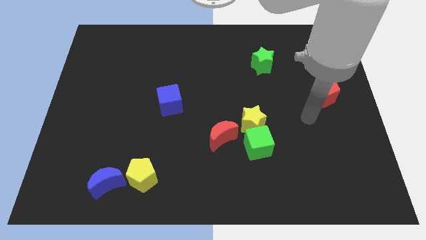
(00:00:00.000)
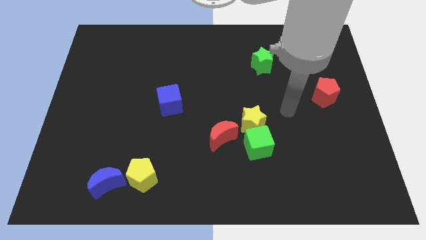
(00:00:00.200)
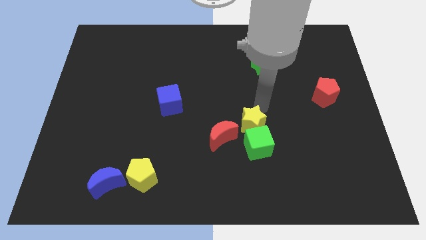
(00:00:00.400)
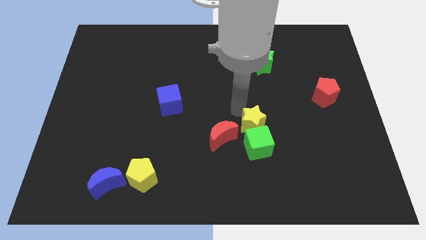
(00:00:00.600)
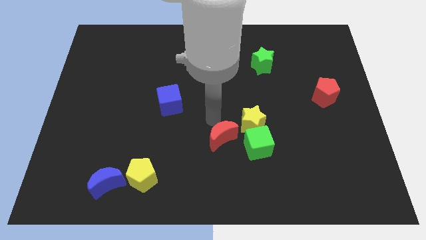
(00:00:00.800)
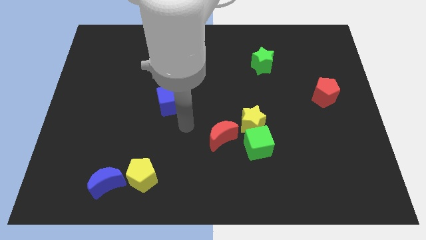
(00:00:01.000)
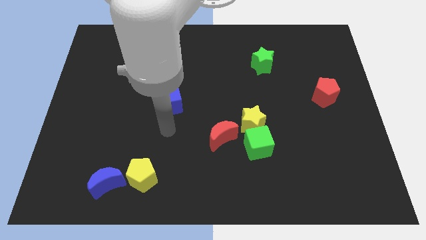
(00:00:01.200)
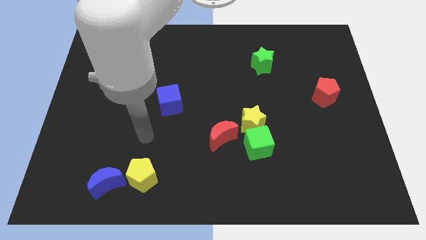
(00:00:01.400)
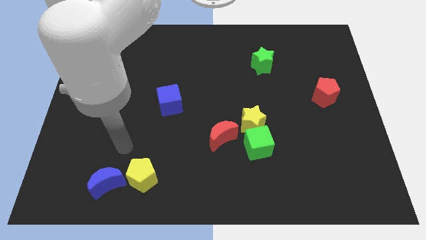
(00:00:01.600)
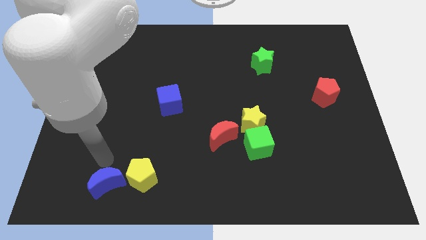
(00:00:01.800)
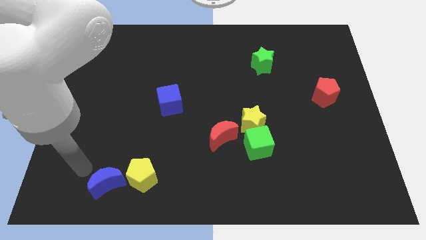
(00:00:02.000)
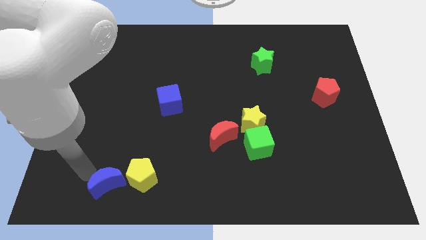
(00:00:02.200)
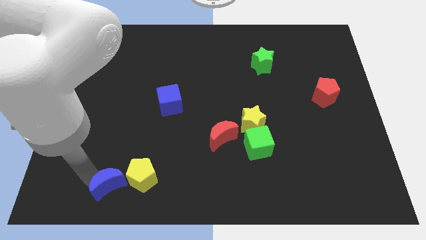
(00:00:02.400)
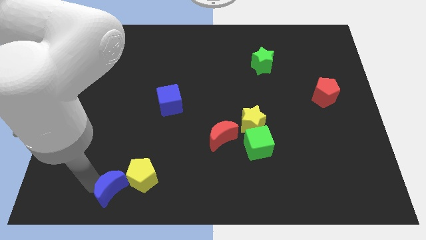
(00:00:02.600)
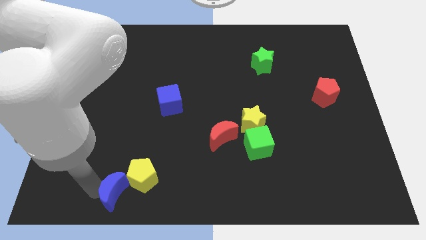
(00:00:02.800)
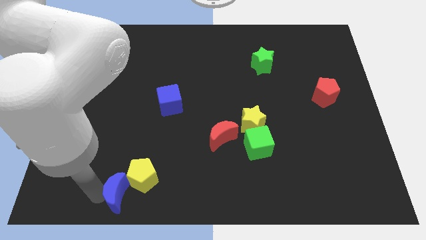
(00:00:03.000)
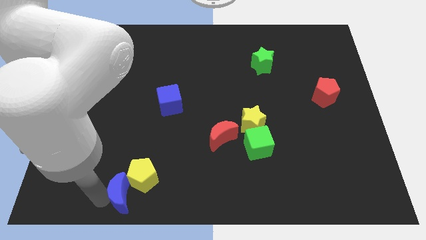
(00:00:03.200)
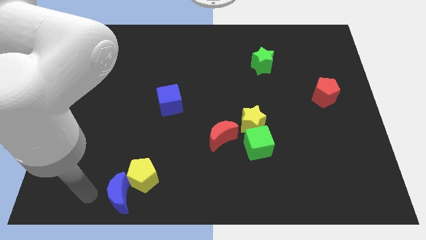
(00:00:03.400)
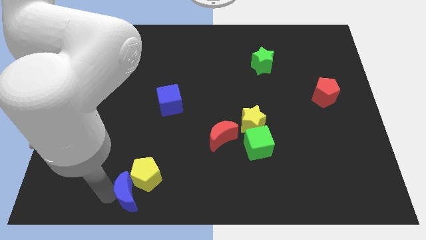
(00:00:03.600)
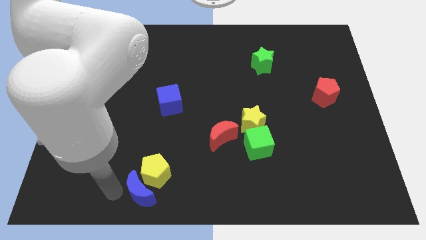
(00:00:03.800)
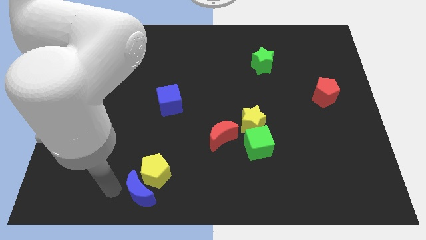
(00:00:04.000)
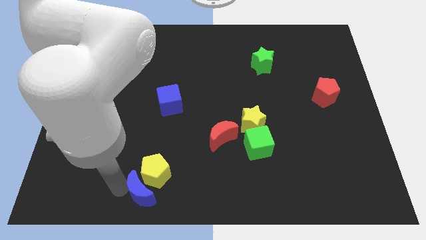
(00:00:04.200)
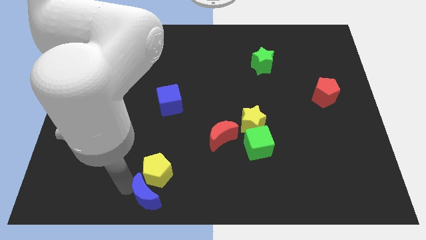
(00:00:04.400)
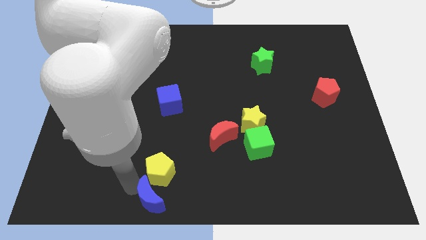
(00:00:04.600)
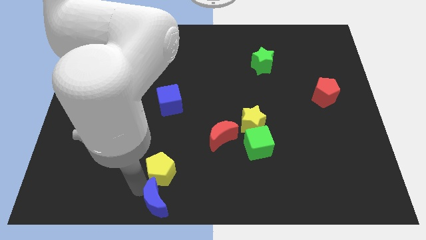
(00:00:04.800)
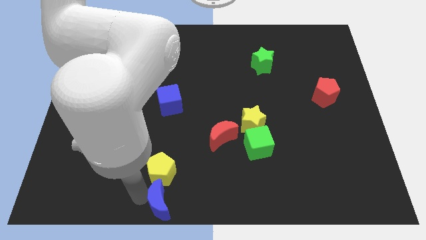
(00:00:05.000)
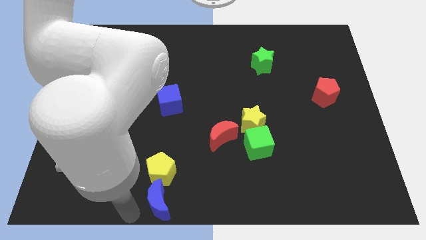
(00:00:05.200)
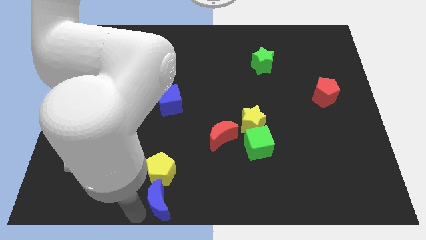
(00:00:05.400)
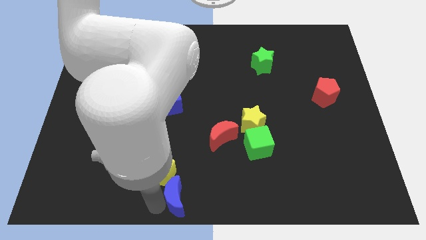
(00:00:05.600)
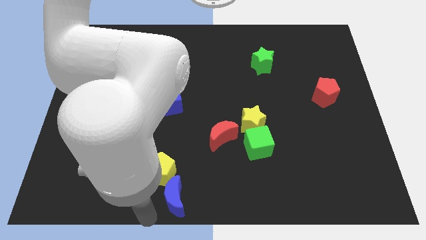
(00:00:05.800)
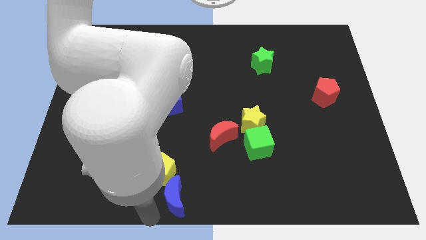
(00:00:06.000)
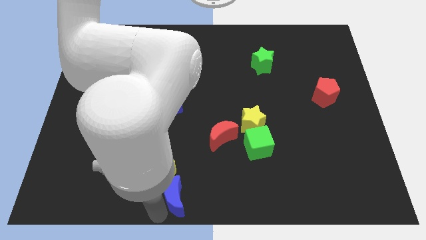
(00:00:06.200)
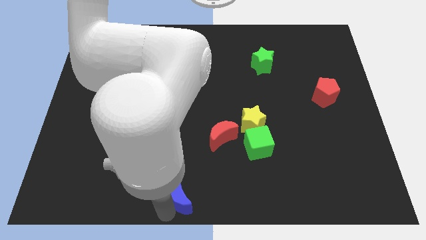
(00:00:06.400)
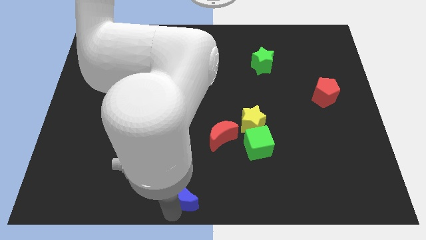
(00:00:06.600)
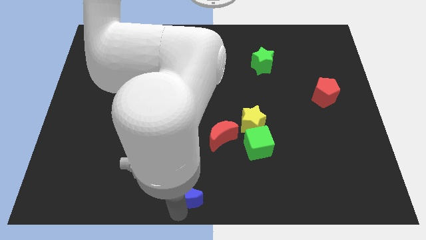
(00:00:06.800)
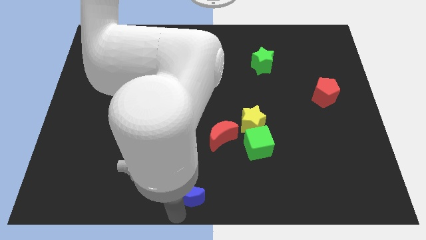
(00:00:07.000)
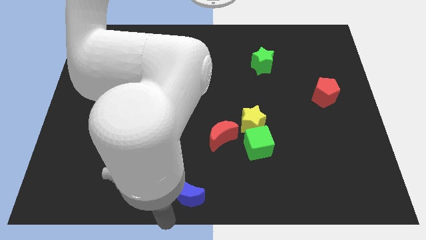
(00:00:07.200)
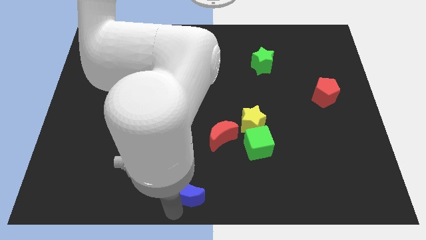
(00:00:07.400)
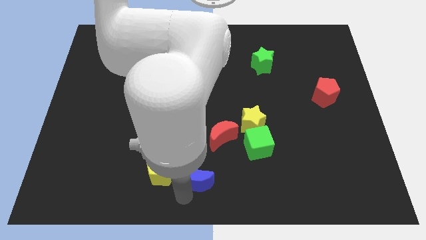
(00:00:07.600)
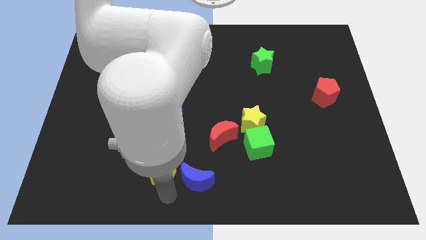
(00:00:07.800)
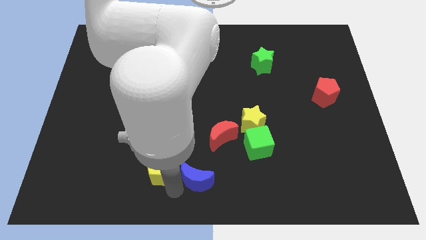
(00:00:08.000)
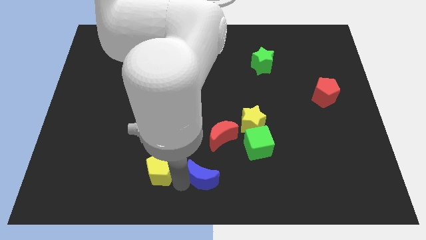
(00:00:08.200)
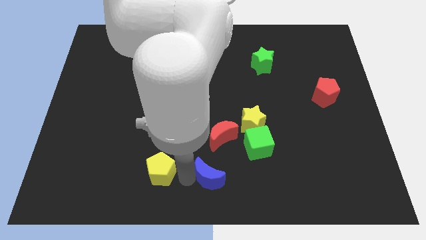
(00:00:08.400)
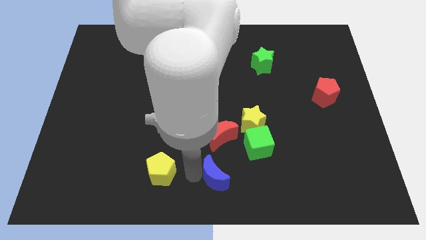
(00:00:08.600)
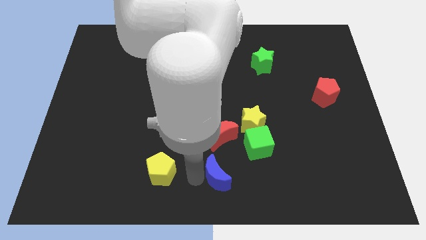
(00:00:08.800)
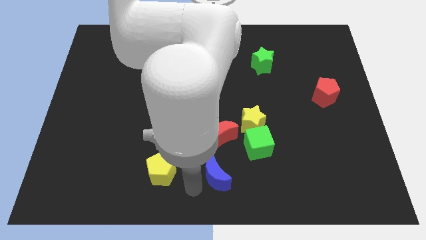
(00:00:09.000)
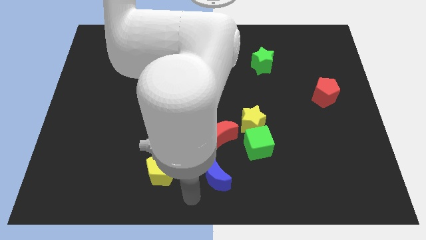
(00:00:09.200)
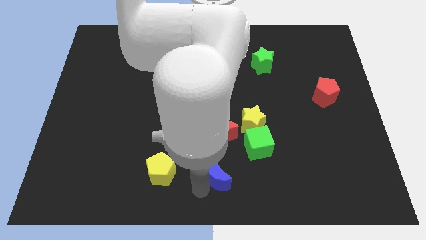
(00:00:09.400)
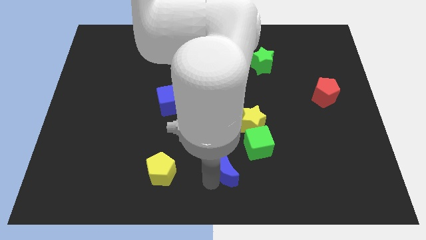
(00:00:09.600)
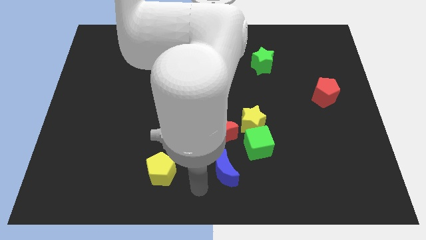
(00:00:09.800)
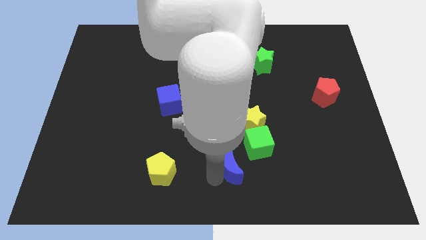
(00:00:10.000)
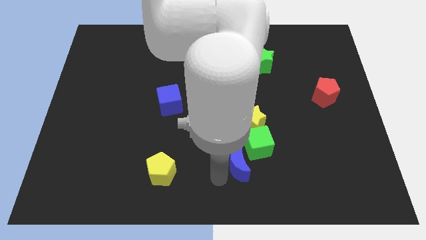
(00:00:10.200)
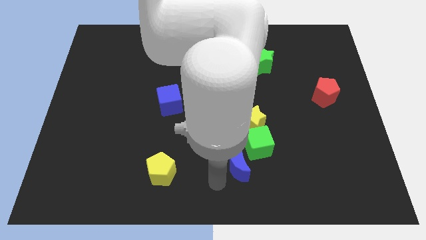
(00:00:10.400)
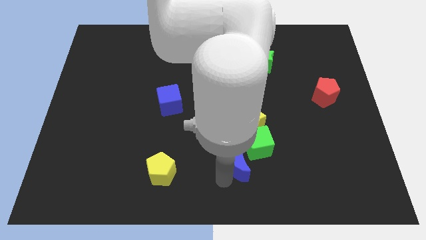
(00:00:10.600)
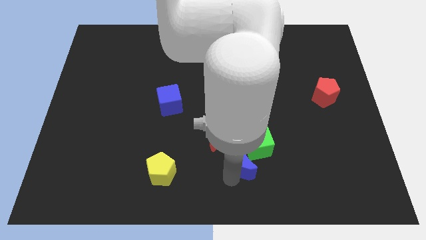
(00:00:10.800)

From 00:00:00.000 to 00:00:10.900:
put the blue moon close to the green cube

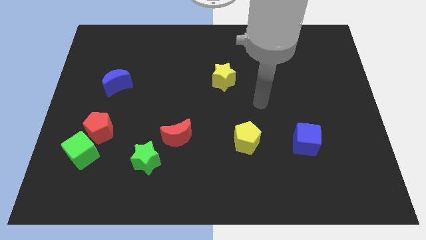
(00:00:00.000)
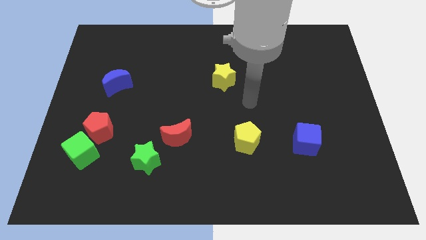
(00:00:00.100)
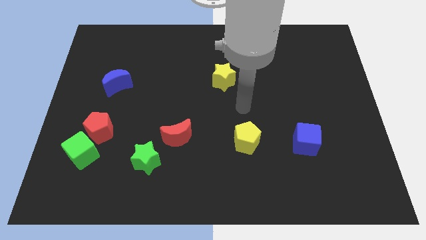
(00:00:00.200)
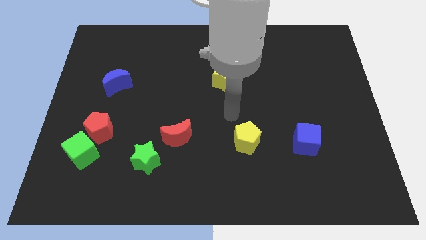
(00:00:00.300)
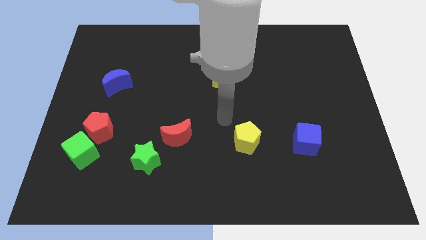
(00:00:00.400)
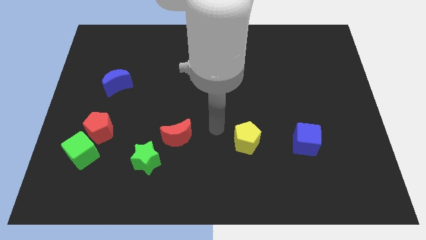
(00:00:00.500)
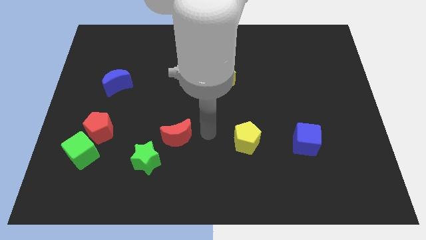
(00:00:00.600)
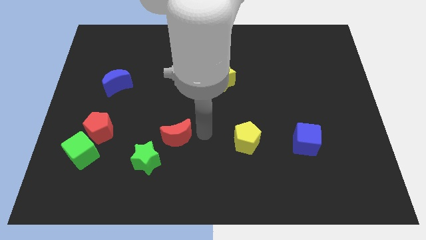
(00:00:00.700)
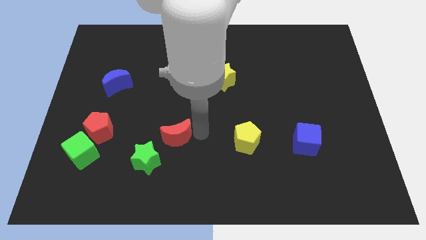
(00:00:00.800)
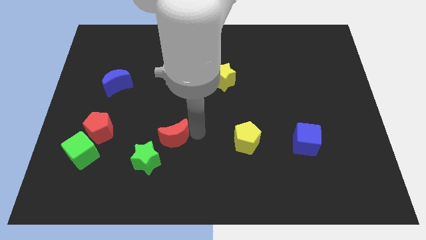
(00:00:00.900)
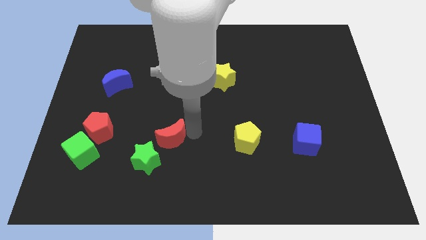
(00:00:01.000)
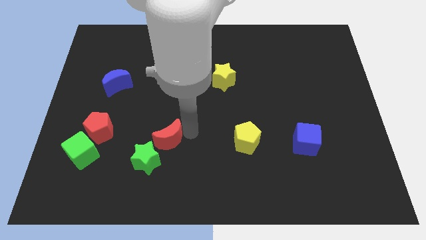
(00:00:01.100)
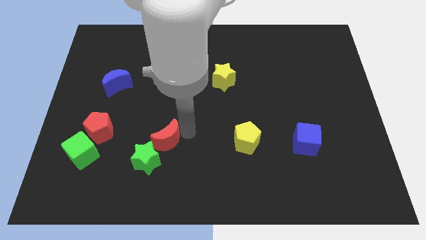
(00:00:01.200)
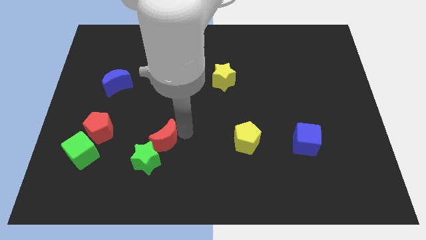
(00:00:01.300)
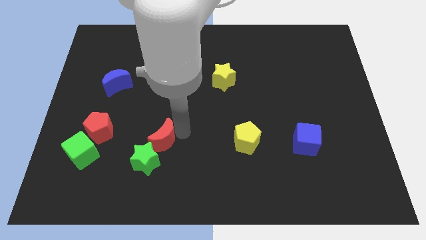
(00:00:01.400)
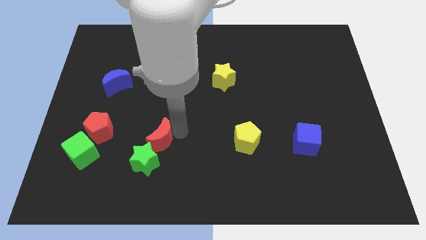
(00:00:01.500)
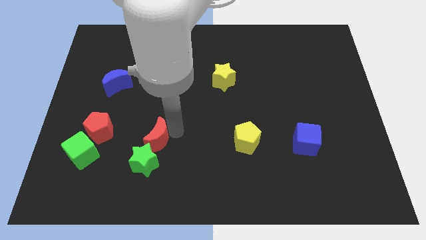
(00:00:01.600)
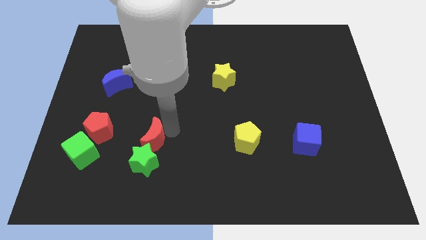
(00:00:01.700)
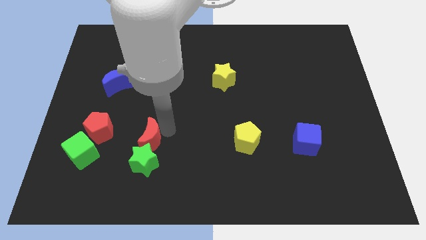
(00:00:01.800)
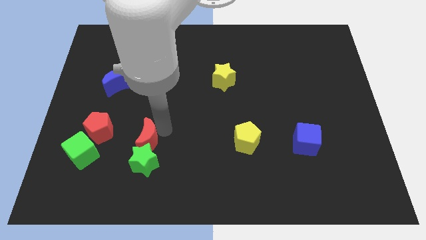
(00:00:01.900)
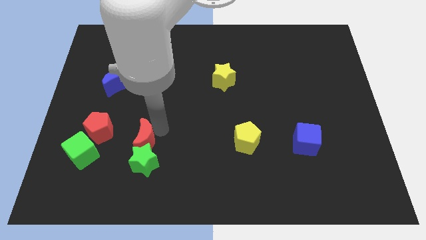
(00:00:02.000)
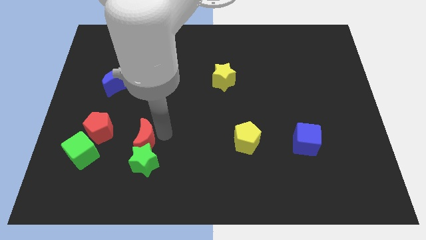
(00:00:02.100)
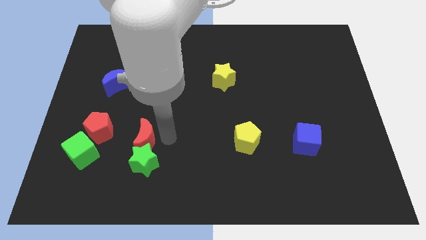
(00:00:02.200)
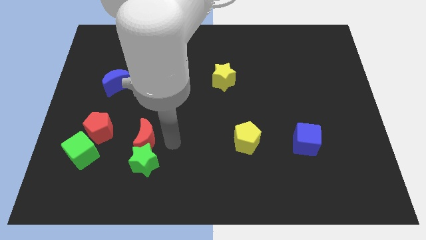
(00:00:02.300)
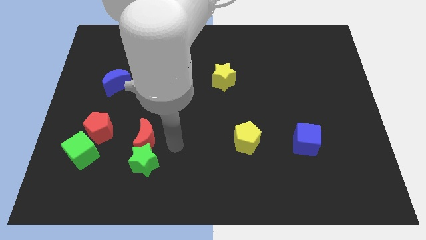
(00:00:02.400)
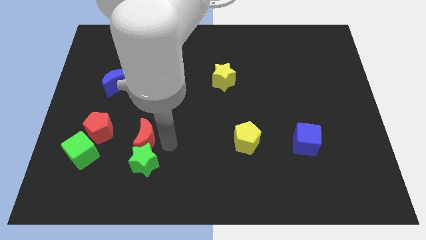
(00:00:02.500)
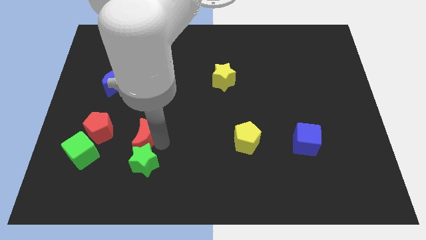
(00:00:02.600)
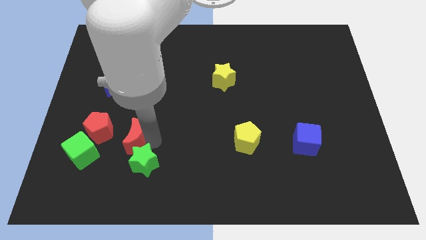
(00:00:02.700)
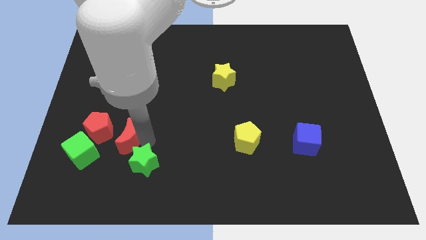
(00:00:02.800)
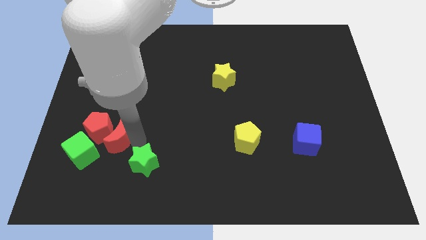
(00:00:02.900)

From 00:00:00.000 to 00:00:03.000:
push the red moon to the red pentagon
